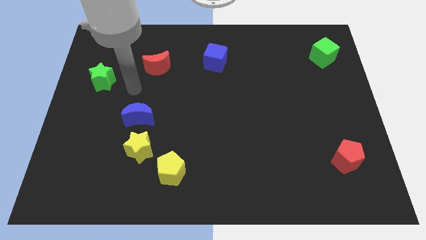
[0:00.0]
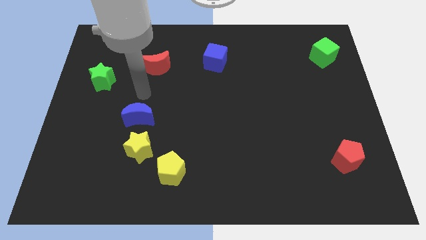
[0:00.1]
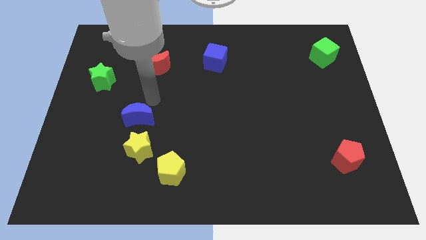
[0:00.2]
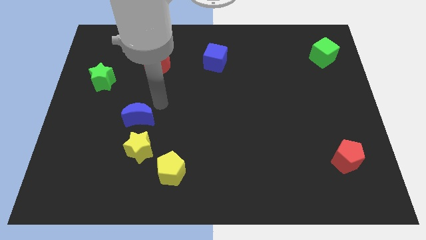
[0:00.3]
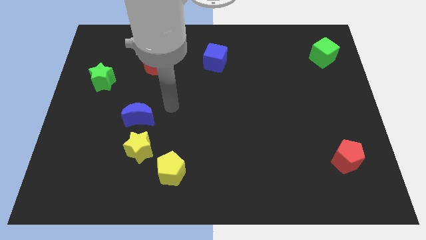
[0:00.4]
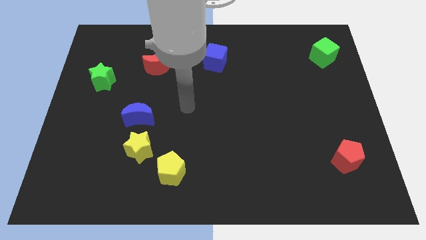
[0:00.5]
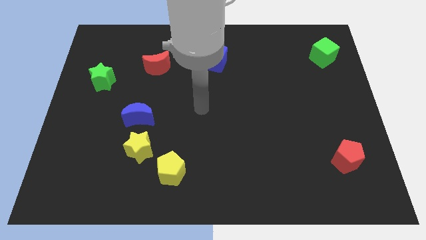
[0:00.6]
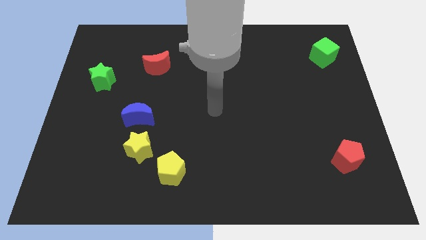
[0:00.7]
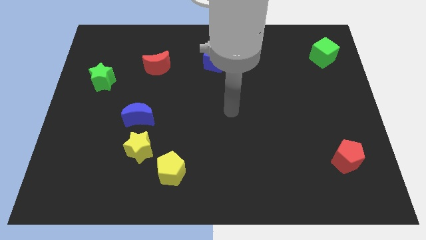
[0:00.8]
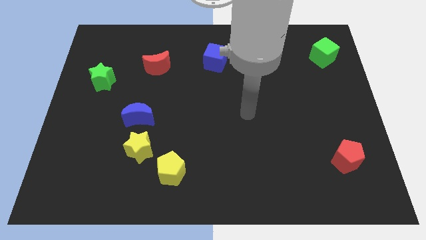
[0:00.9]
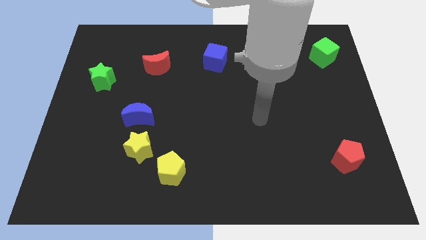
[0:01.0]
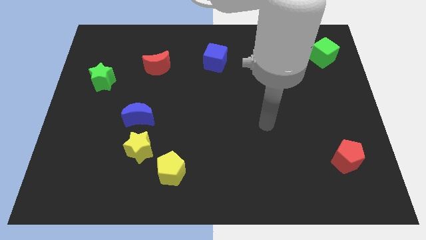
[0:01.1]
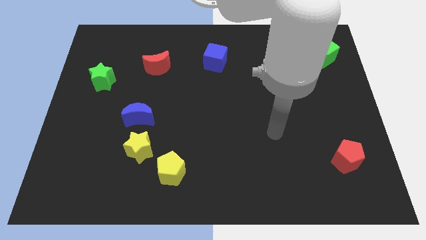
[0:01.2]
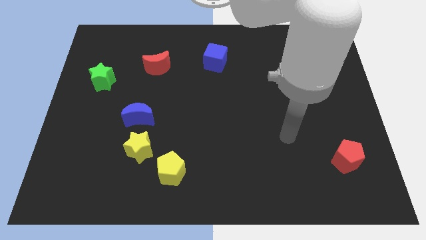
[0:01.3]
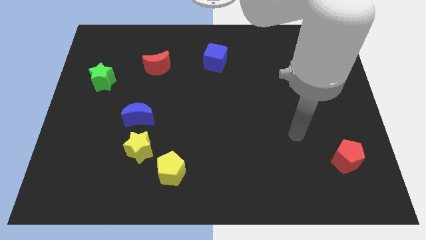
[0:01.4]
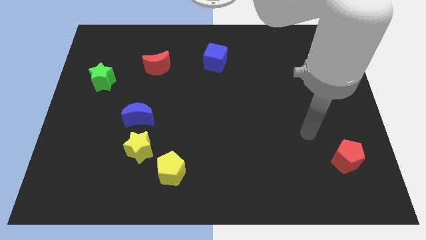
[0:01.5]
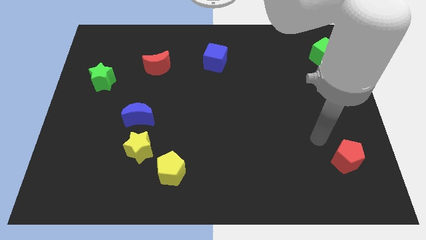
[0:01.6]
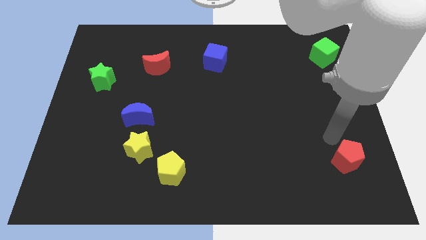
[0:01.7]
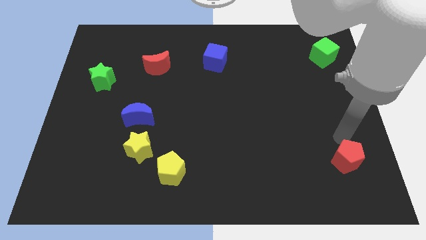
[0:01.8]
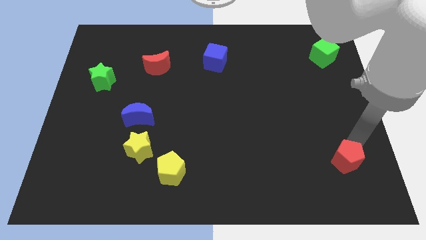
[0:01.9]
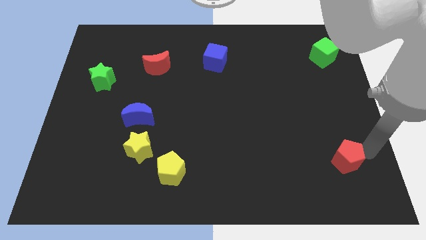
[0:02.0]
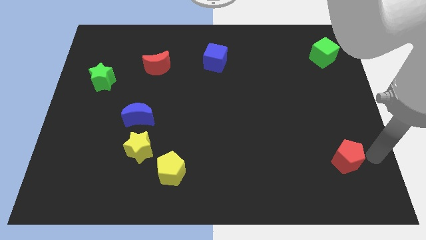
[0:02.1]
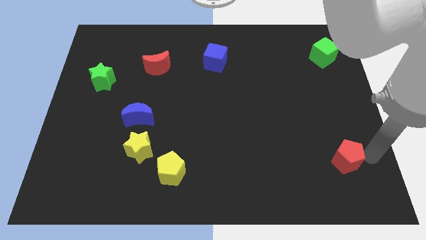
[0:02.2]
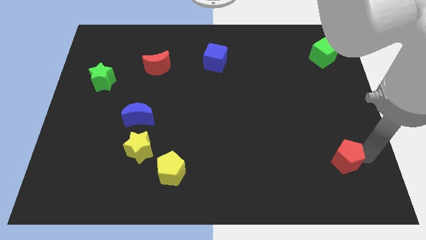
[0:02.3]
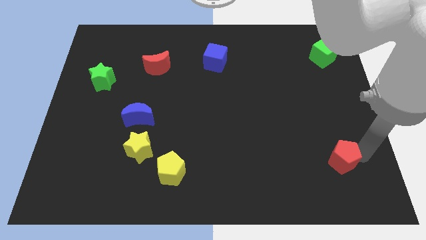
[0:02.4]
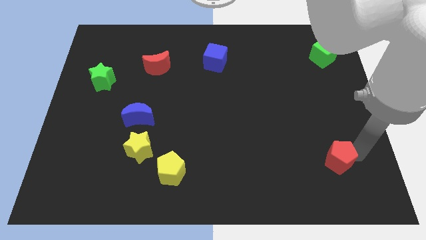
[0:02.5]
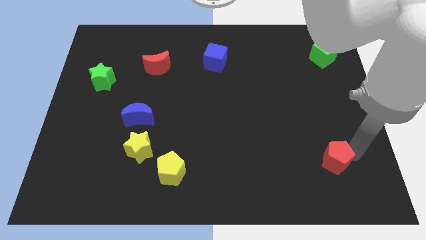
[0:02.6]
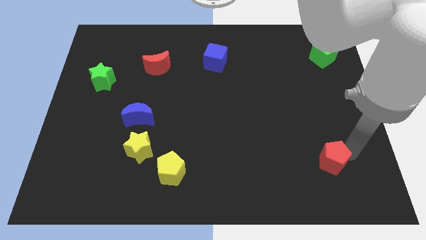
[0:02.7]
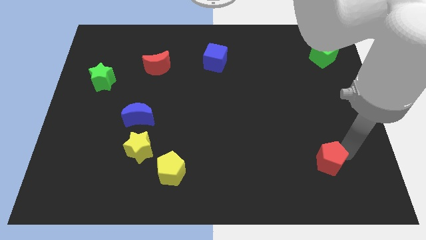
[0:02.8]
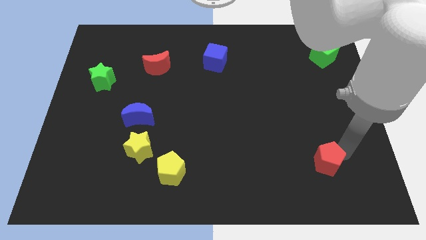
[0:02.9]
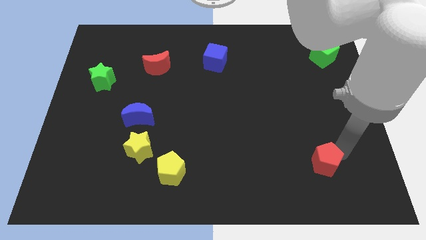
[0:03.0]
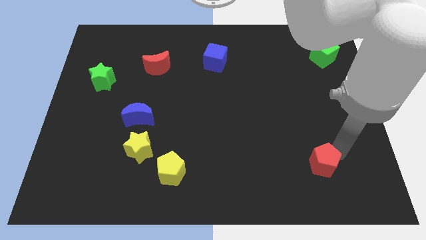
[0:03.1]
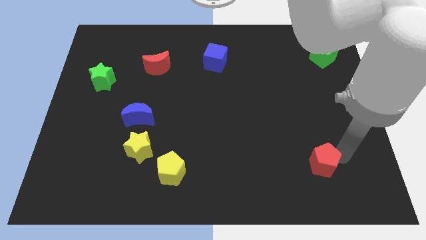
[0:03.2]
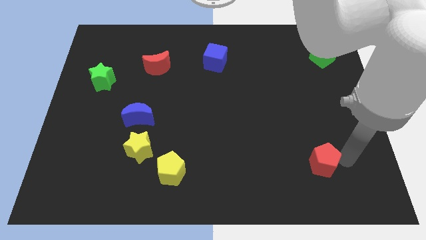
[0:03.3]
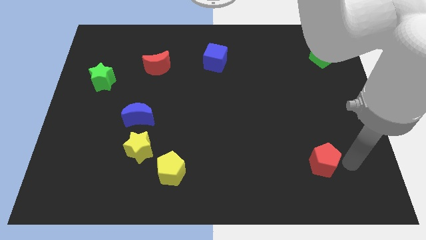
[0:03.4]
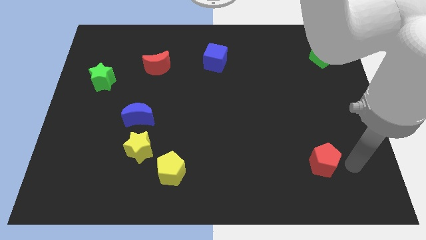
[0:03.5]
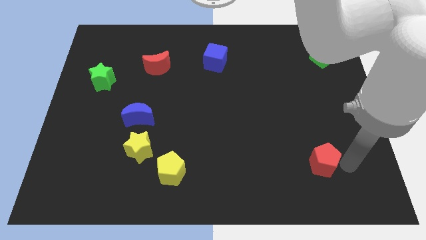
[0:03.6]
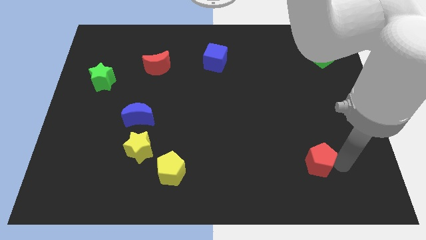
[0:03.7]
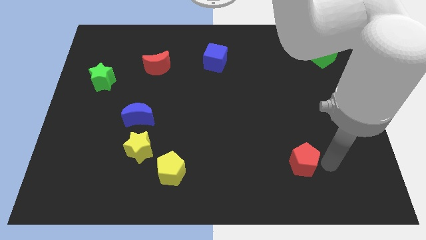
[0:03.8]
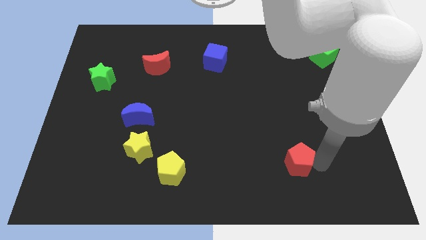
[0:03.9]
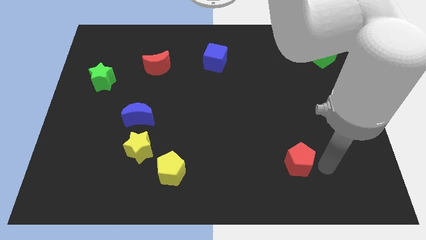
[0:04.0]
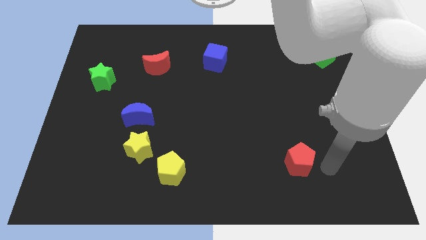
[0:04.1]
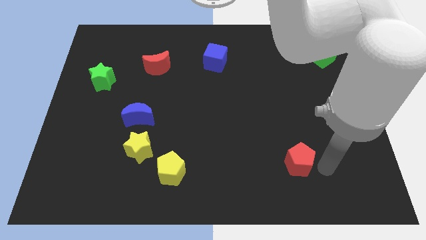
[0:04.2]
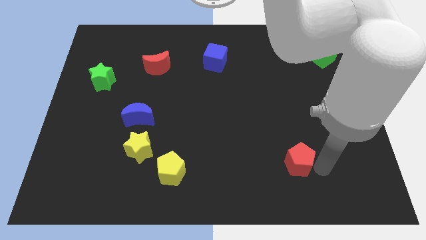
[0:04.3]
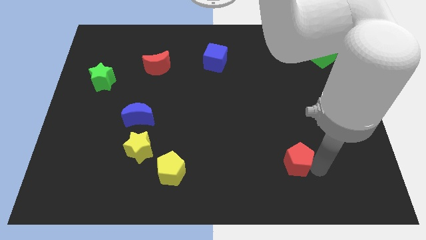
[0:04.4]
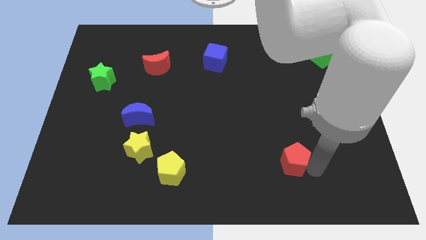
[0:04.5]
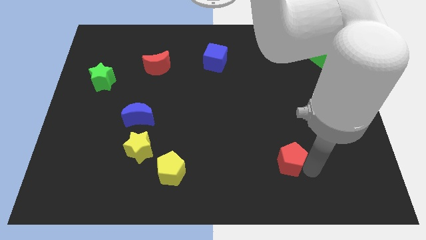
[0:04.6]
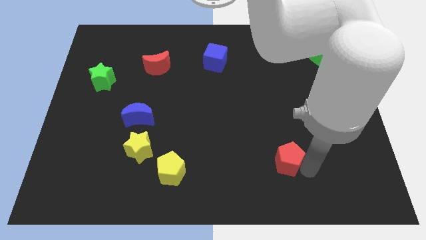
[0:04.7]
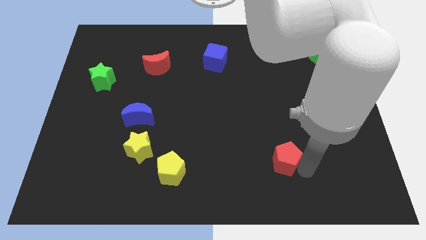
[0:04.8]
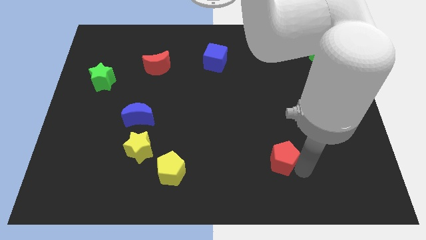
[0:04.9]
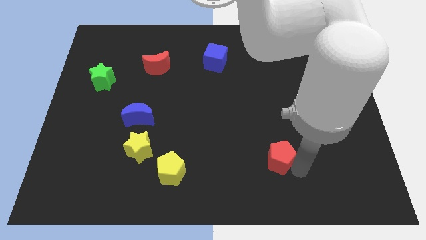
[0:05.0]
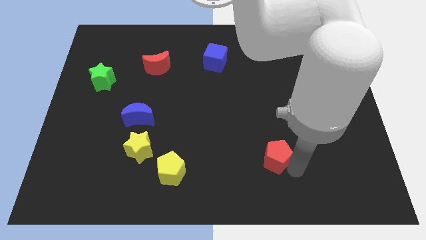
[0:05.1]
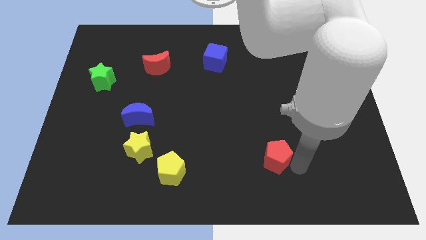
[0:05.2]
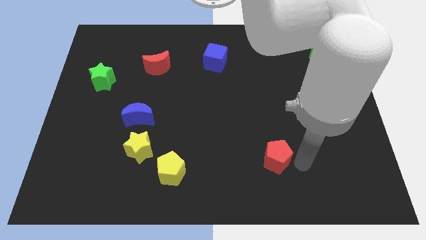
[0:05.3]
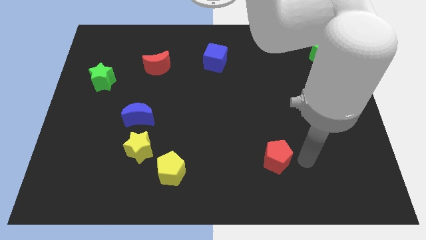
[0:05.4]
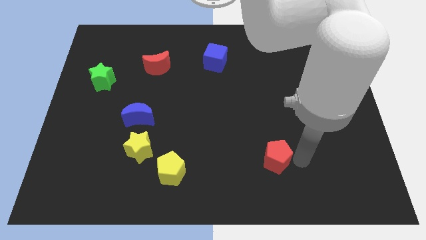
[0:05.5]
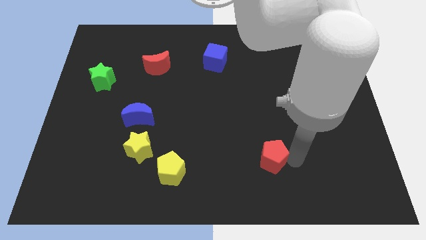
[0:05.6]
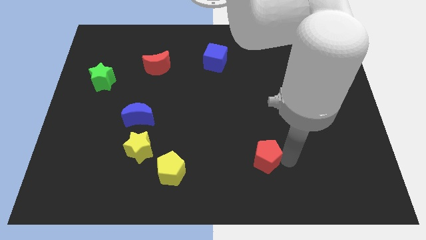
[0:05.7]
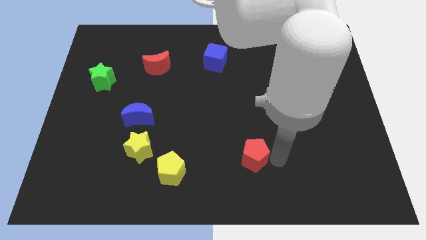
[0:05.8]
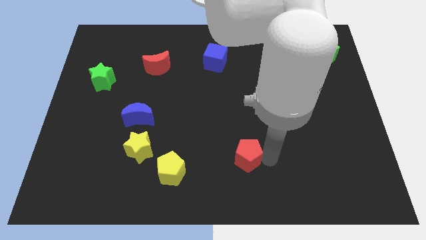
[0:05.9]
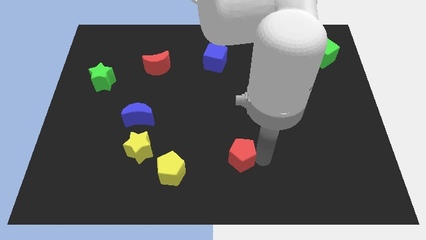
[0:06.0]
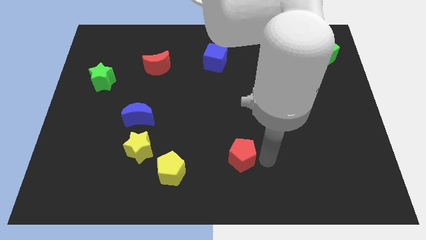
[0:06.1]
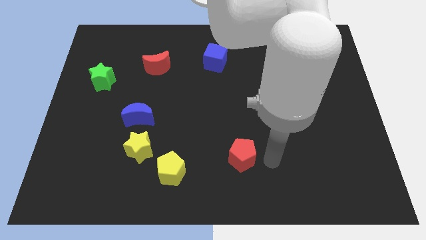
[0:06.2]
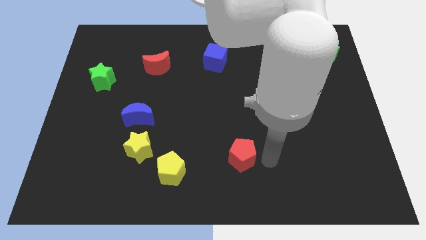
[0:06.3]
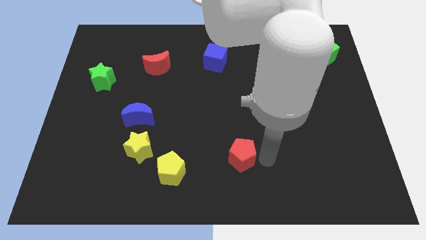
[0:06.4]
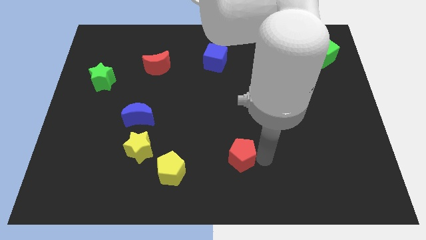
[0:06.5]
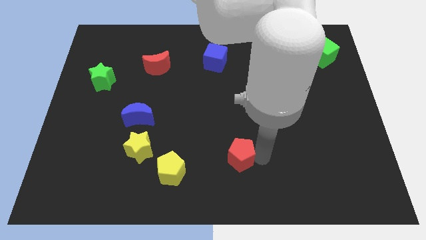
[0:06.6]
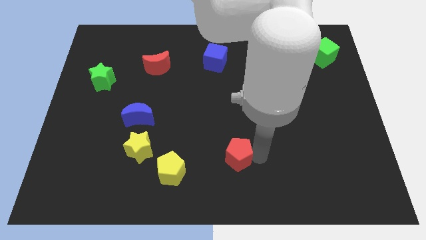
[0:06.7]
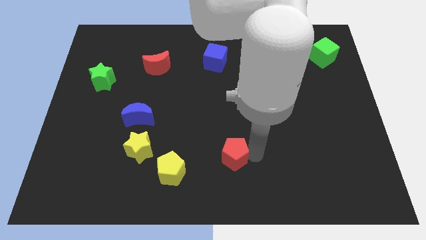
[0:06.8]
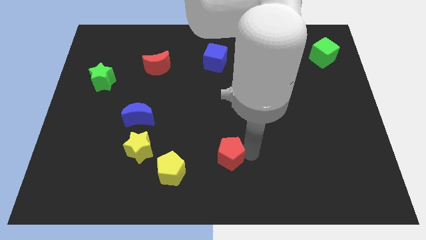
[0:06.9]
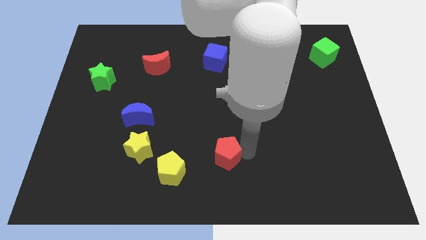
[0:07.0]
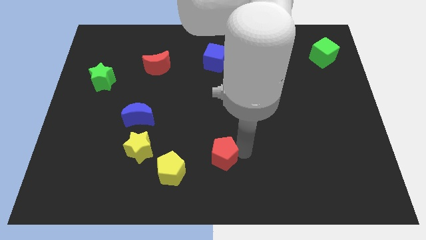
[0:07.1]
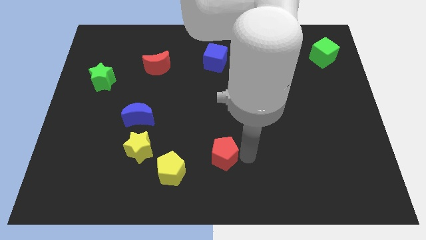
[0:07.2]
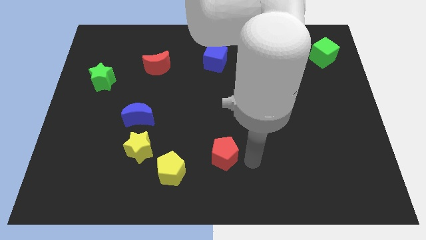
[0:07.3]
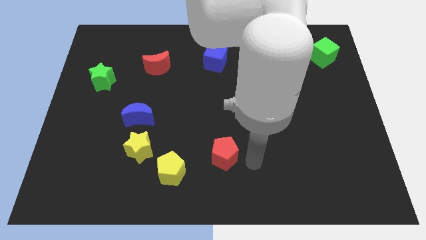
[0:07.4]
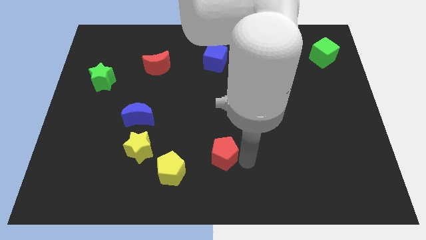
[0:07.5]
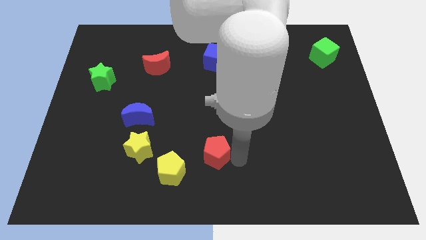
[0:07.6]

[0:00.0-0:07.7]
put the red pentagon to the top right of the yellow pentagon
